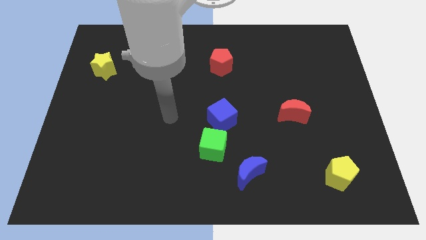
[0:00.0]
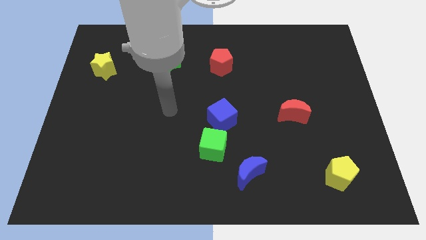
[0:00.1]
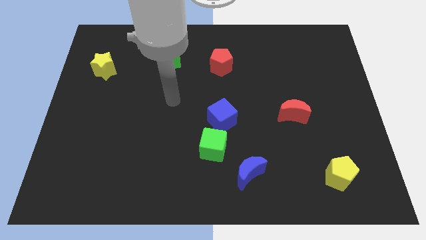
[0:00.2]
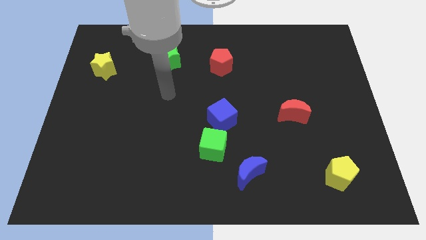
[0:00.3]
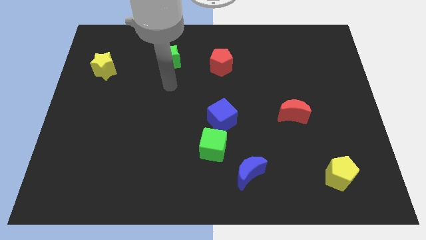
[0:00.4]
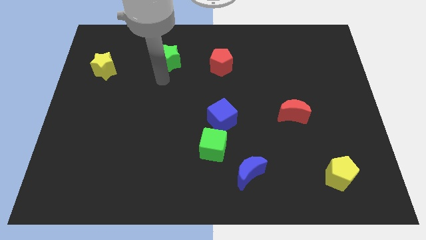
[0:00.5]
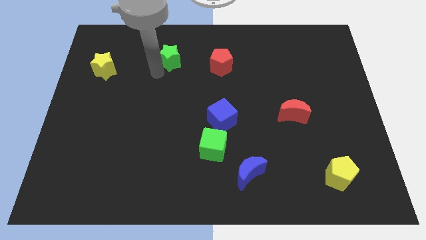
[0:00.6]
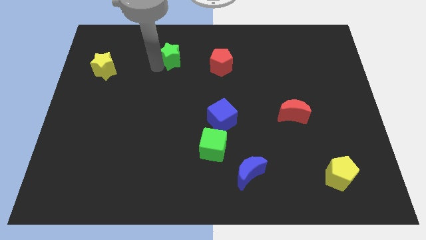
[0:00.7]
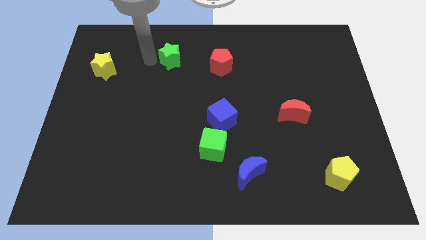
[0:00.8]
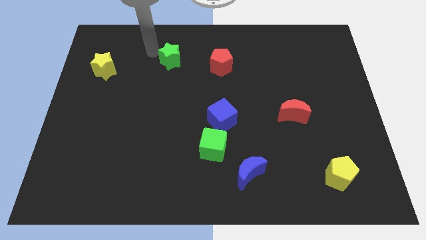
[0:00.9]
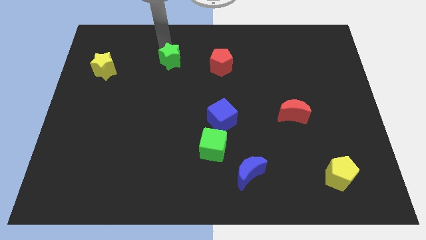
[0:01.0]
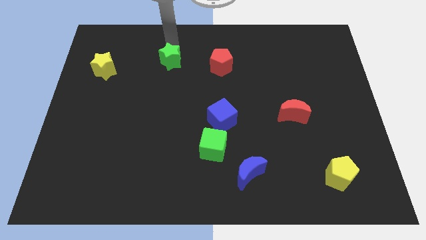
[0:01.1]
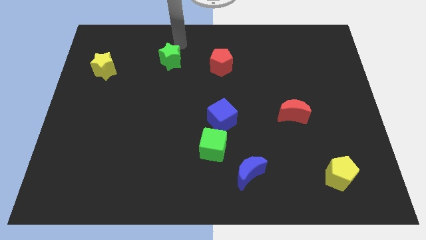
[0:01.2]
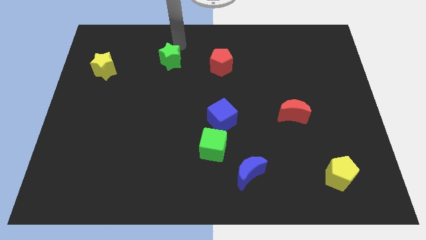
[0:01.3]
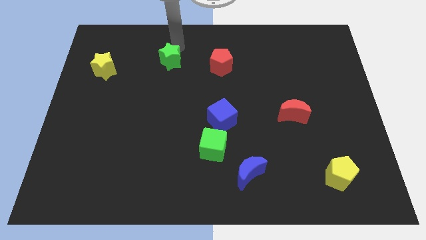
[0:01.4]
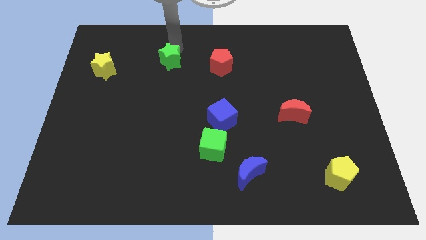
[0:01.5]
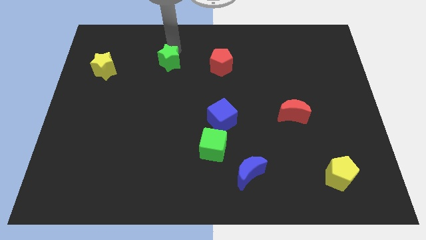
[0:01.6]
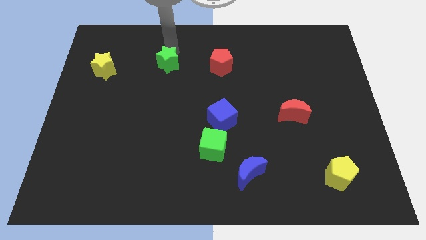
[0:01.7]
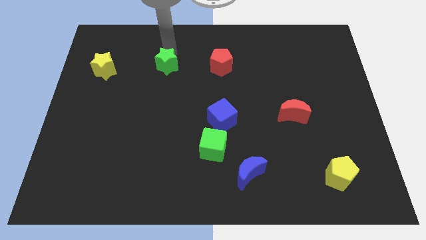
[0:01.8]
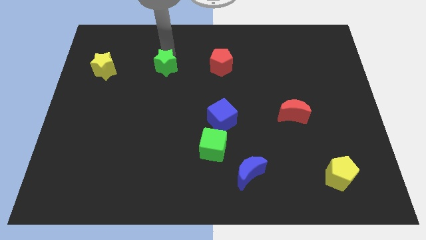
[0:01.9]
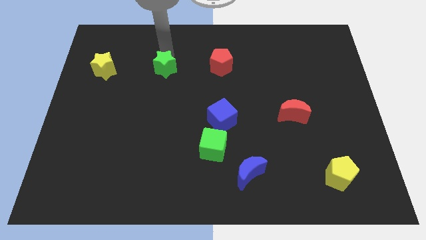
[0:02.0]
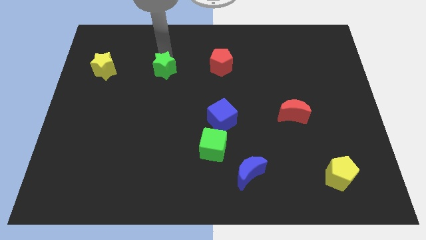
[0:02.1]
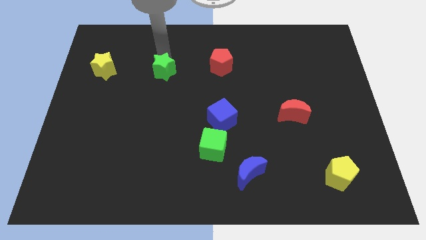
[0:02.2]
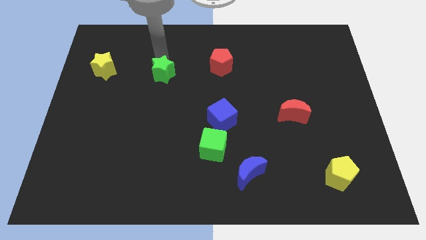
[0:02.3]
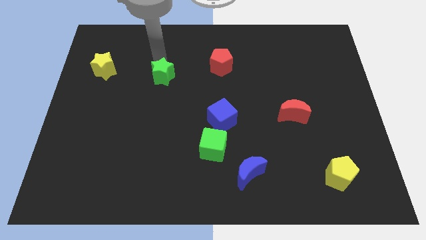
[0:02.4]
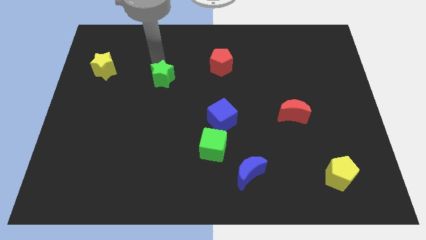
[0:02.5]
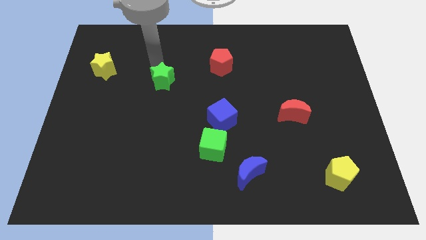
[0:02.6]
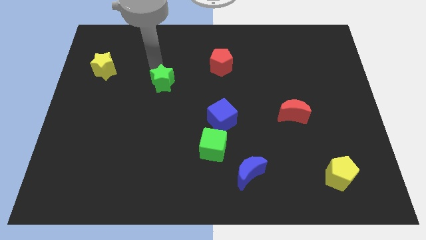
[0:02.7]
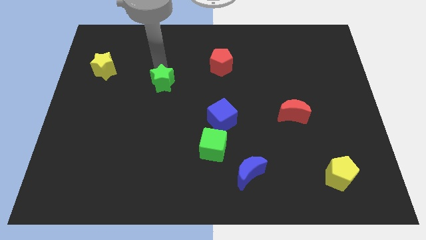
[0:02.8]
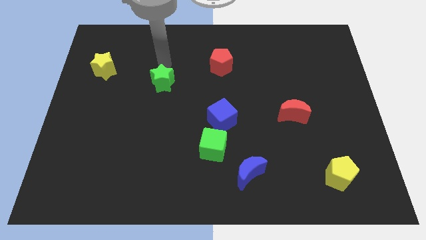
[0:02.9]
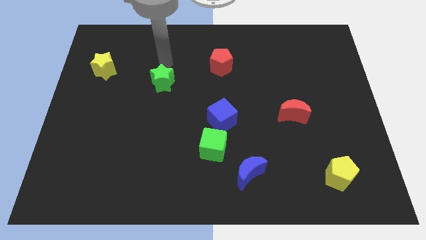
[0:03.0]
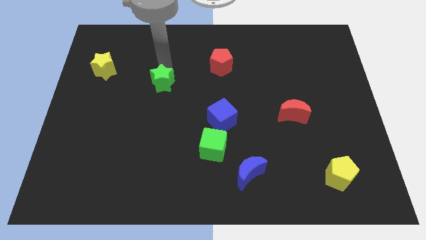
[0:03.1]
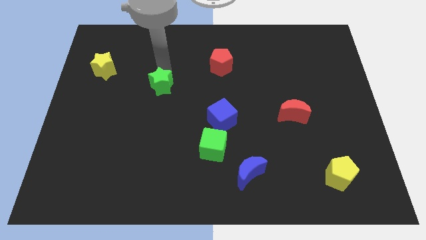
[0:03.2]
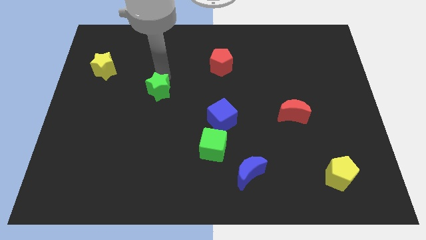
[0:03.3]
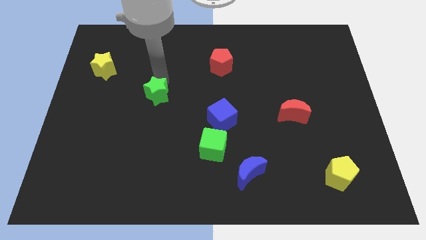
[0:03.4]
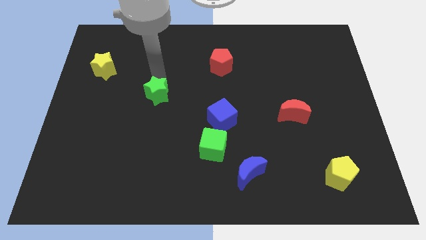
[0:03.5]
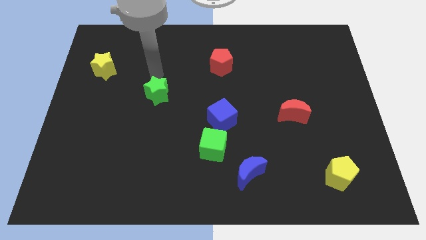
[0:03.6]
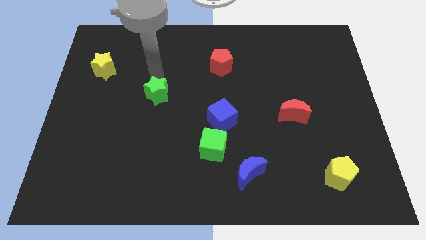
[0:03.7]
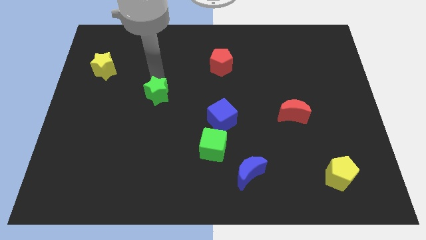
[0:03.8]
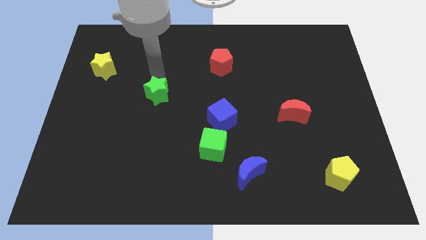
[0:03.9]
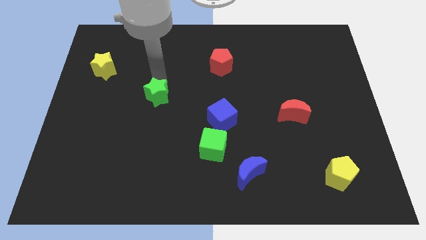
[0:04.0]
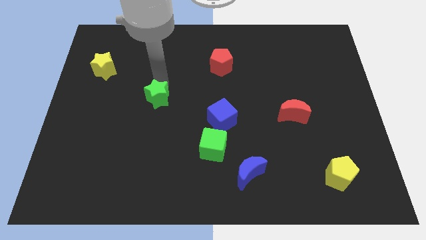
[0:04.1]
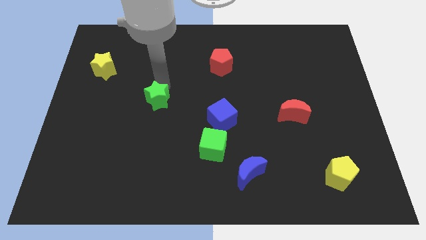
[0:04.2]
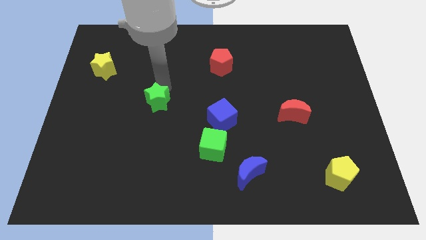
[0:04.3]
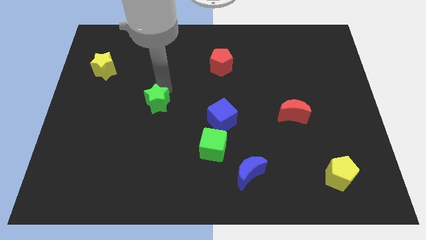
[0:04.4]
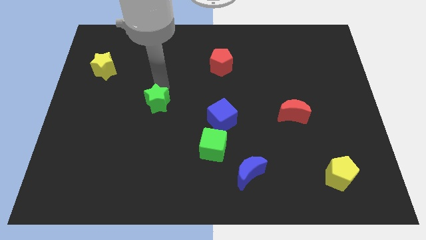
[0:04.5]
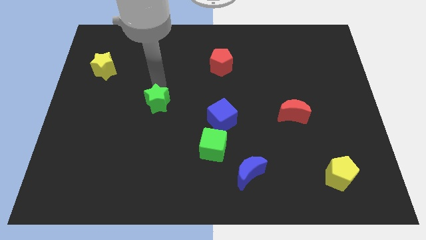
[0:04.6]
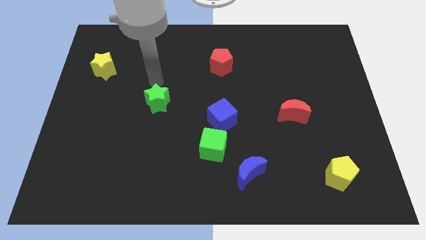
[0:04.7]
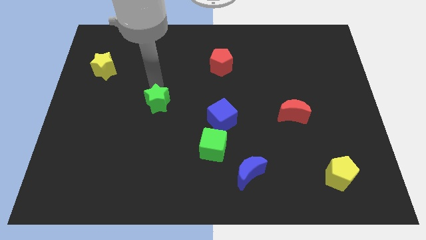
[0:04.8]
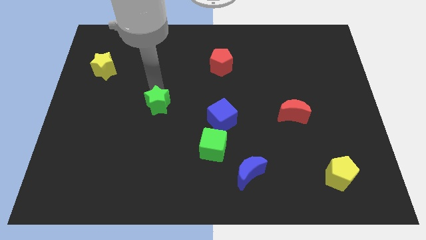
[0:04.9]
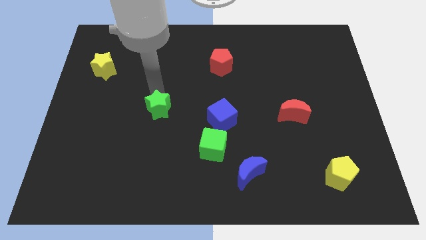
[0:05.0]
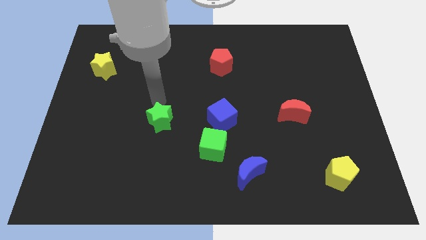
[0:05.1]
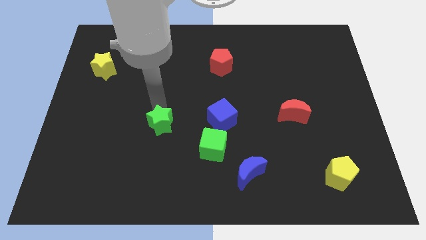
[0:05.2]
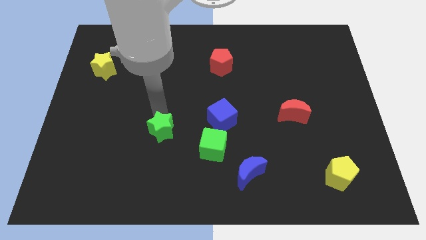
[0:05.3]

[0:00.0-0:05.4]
move the green star to the left of the green cube

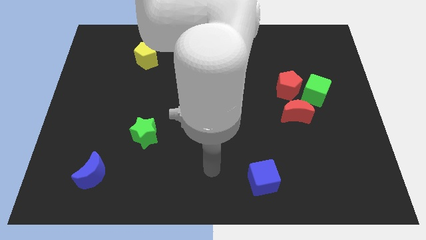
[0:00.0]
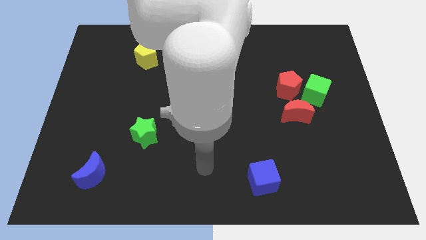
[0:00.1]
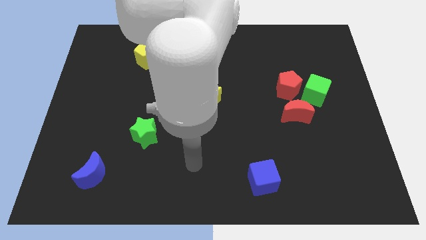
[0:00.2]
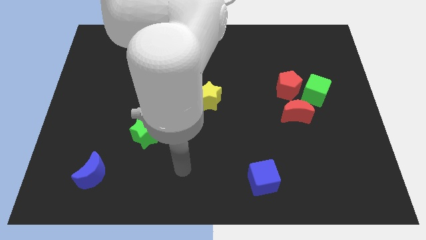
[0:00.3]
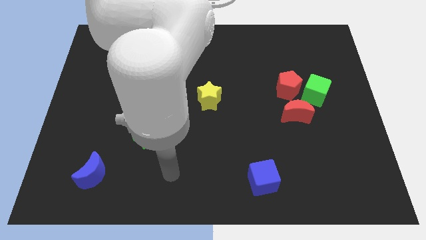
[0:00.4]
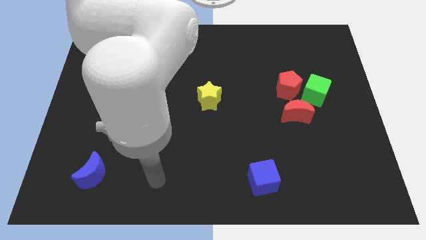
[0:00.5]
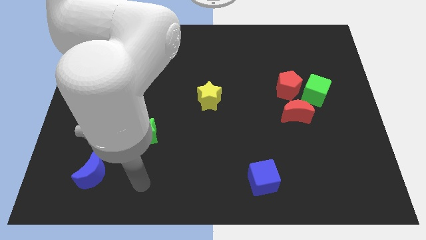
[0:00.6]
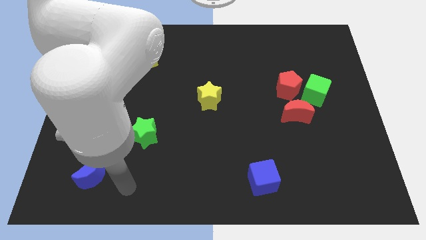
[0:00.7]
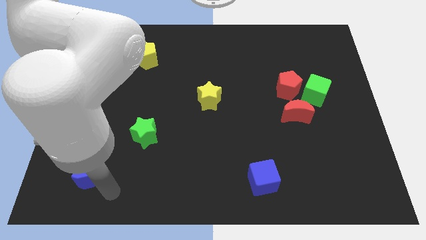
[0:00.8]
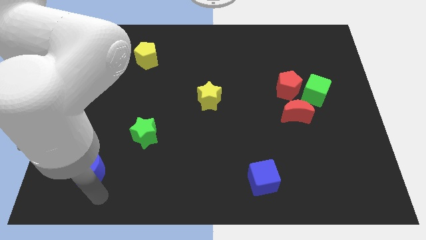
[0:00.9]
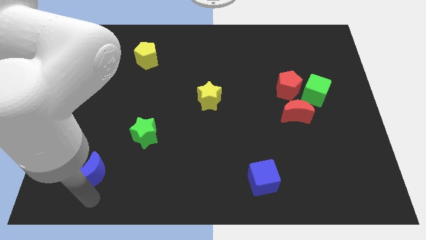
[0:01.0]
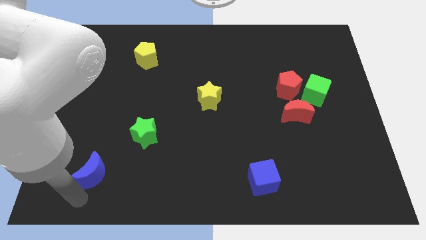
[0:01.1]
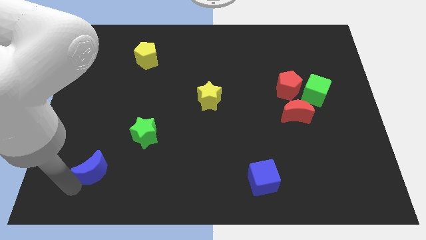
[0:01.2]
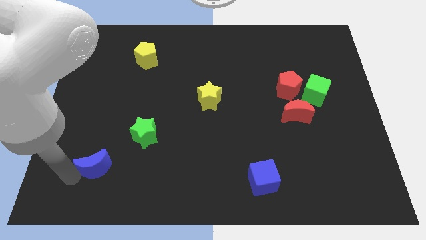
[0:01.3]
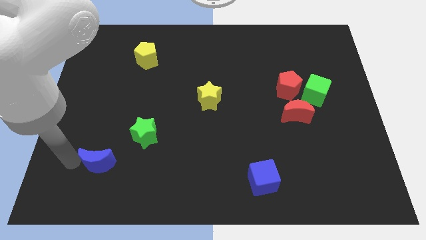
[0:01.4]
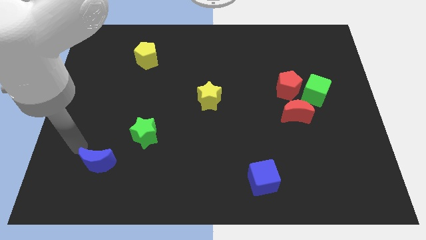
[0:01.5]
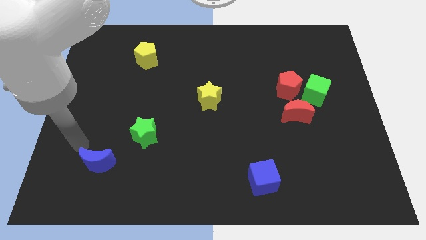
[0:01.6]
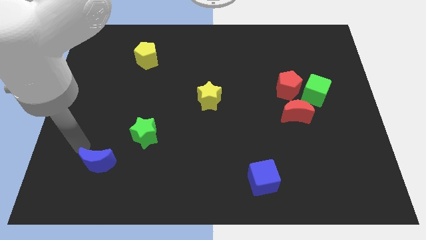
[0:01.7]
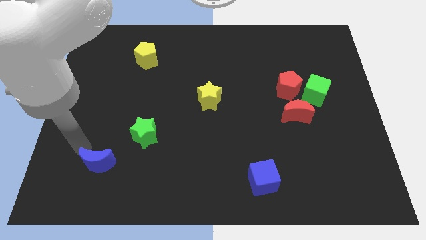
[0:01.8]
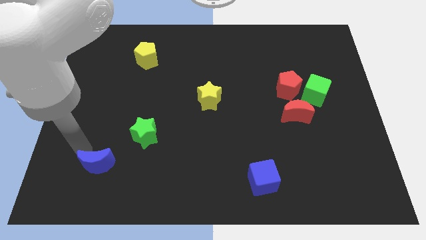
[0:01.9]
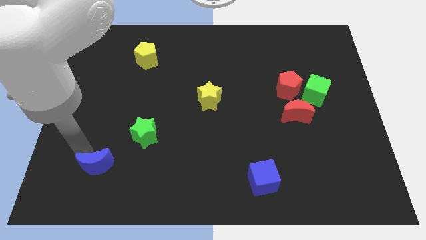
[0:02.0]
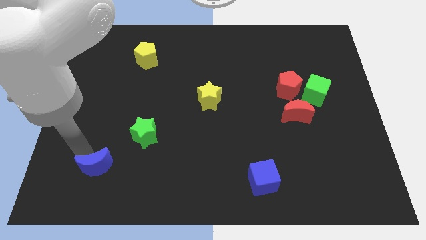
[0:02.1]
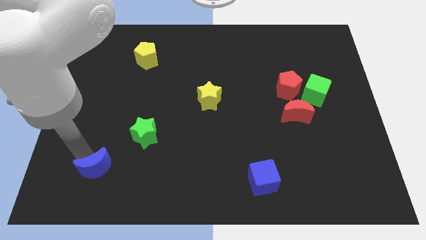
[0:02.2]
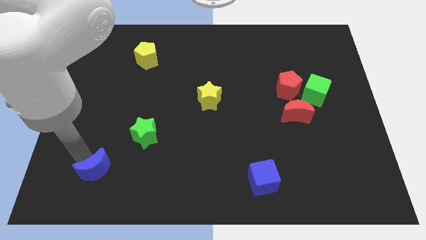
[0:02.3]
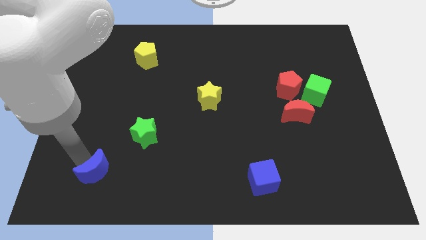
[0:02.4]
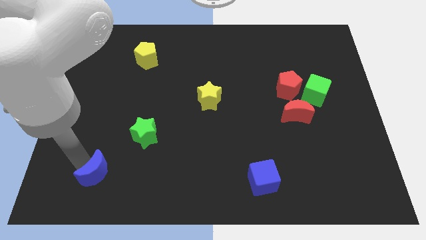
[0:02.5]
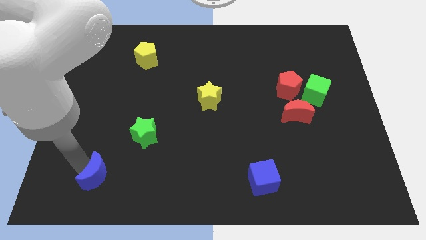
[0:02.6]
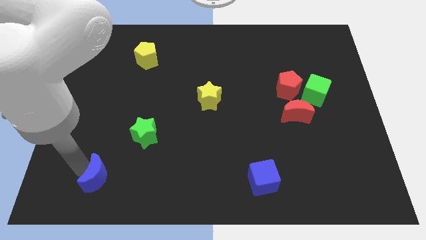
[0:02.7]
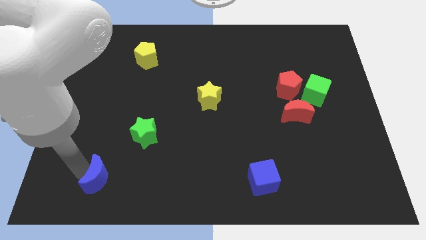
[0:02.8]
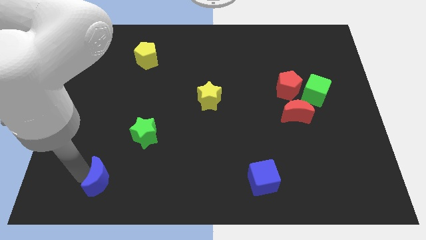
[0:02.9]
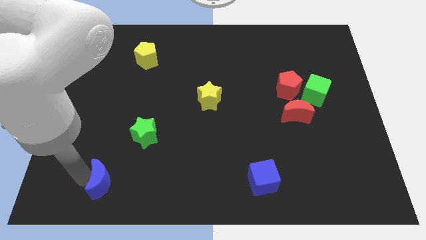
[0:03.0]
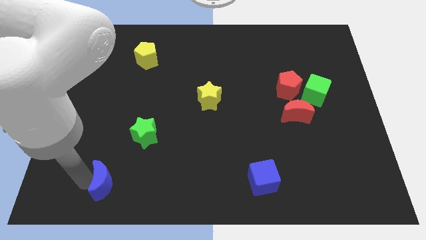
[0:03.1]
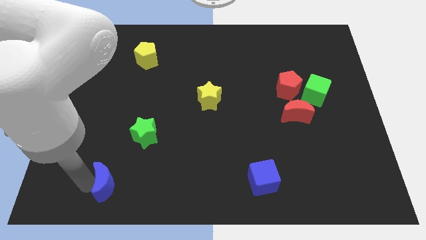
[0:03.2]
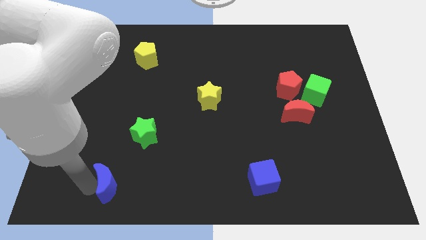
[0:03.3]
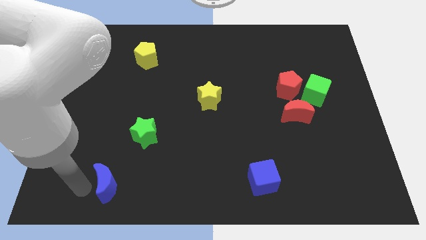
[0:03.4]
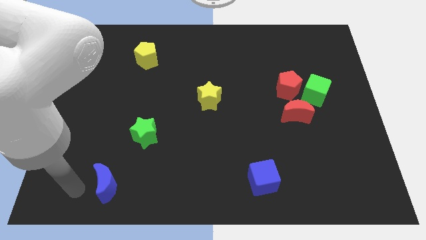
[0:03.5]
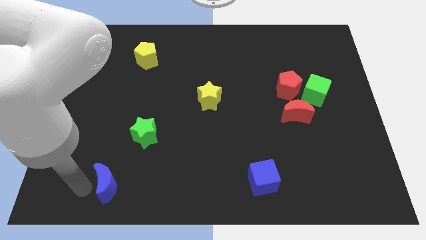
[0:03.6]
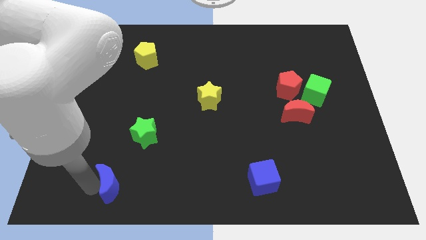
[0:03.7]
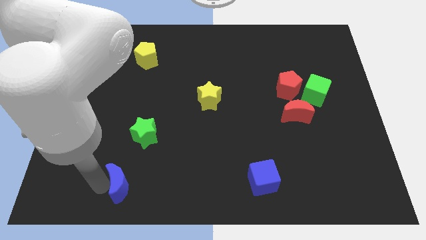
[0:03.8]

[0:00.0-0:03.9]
push the blue moon below the green star
